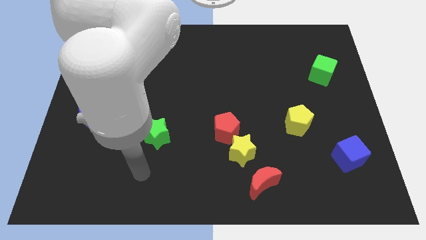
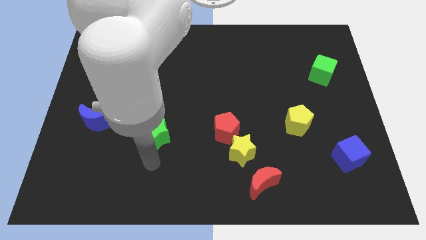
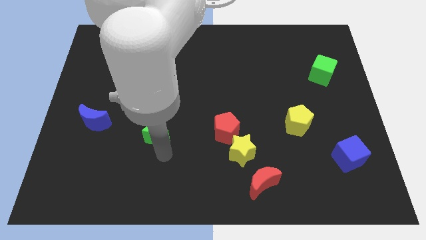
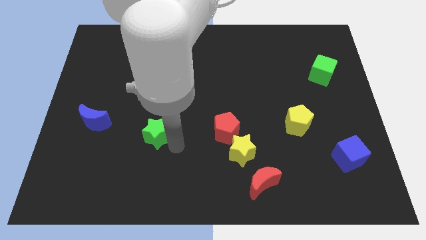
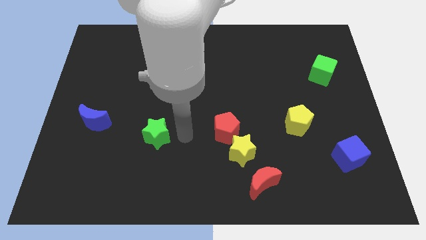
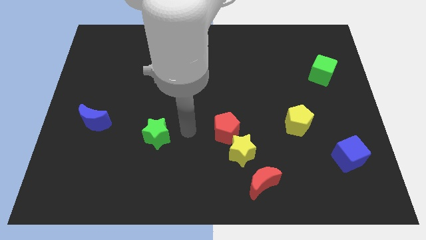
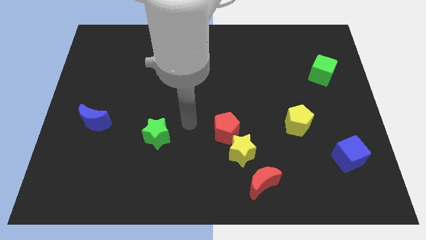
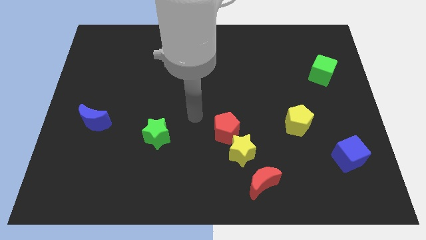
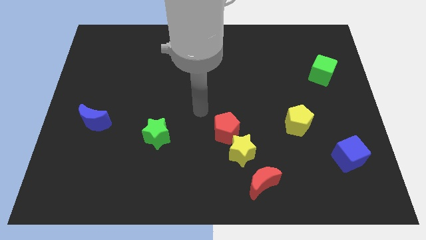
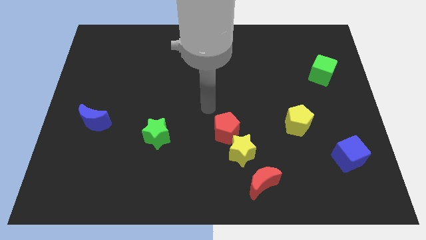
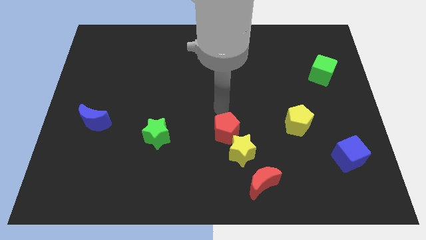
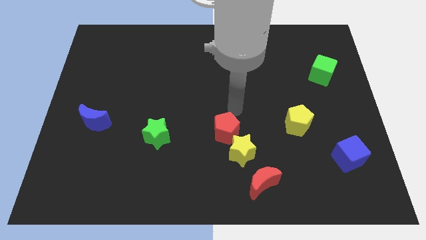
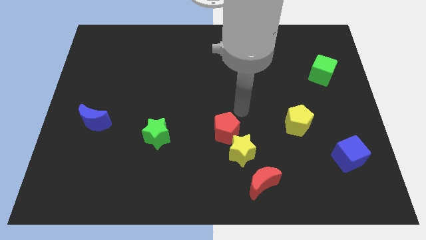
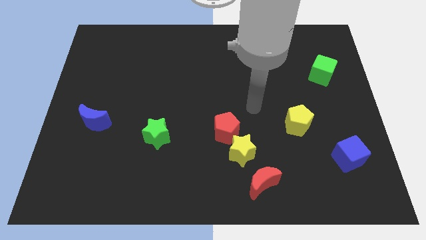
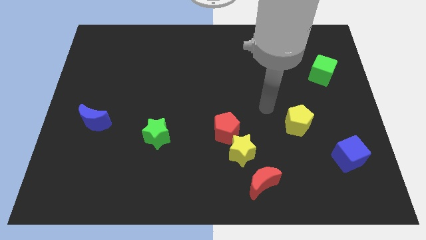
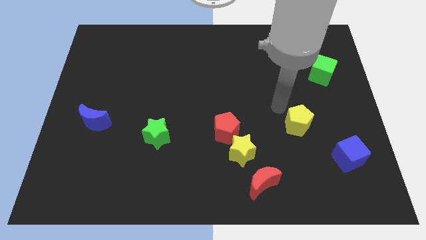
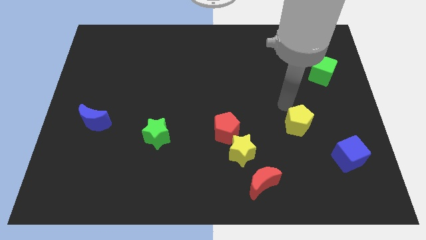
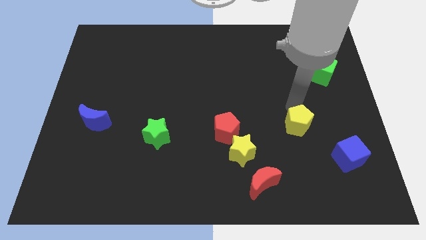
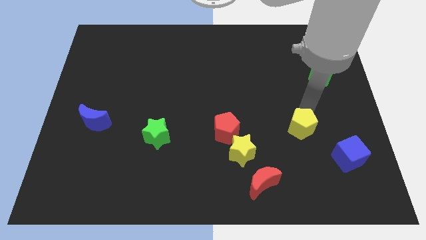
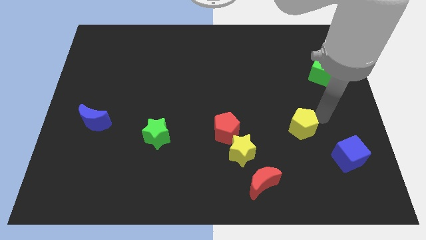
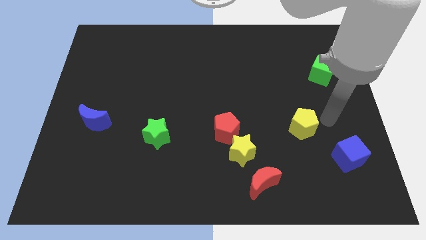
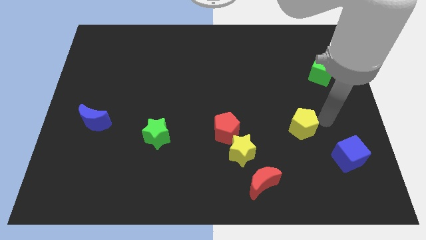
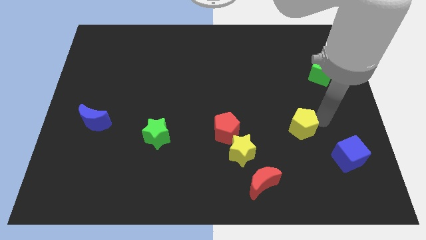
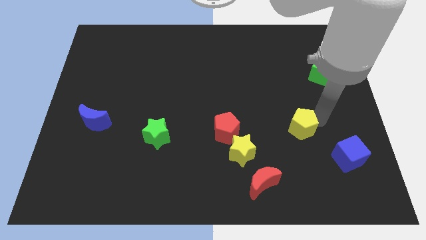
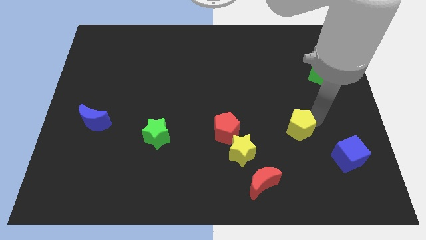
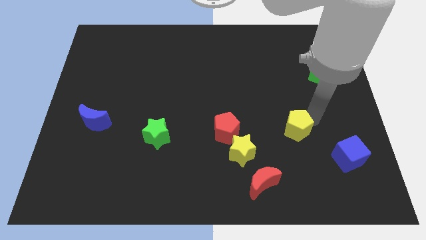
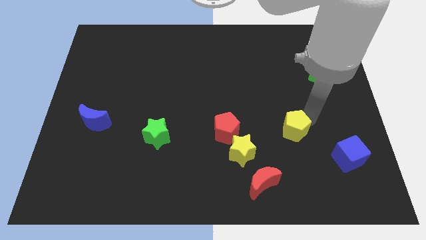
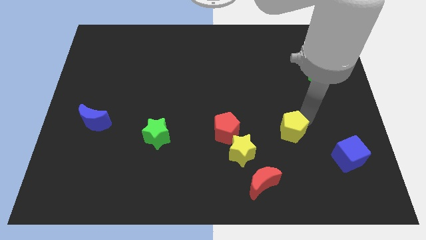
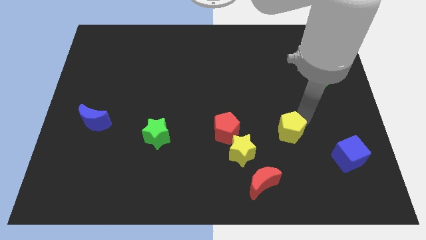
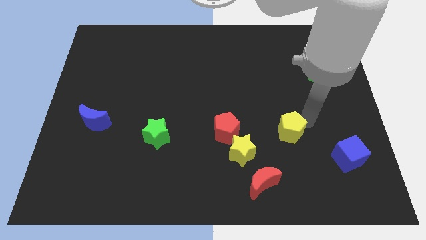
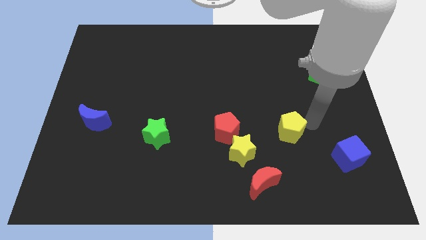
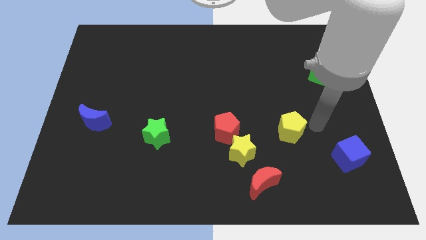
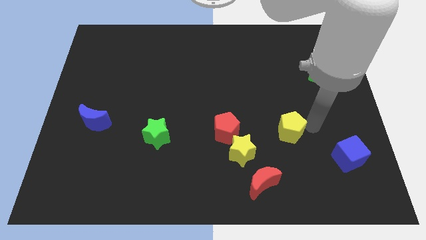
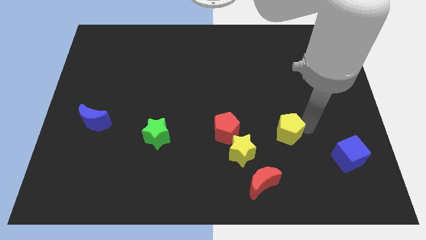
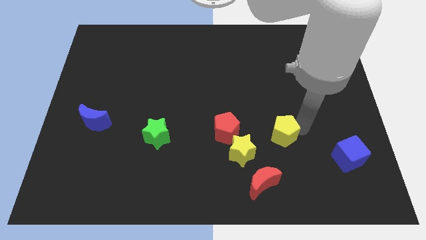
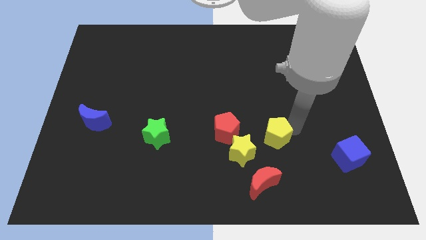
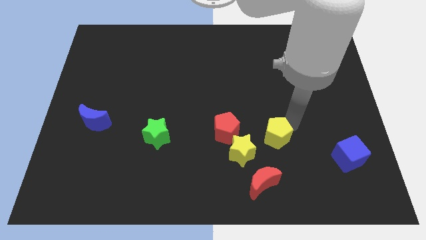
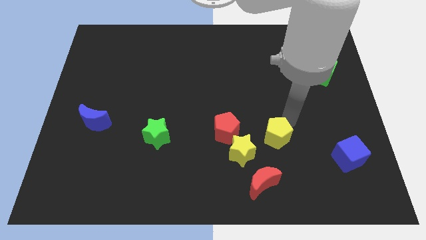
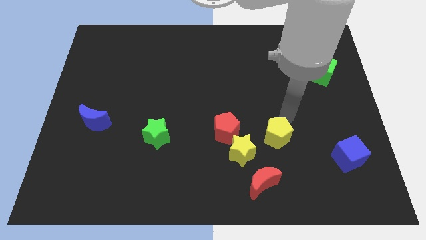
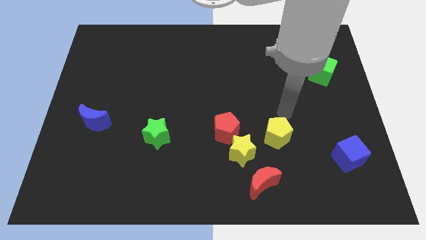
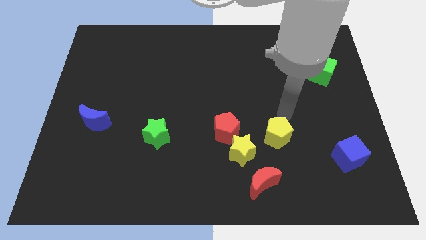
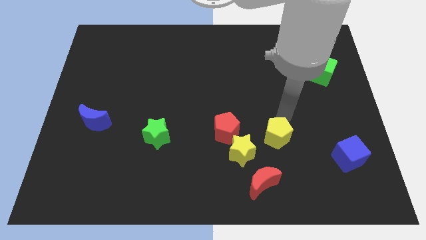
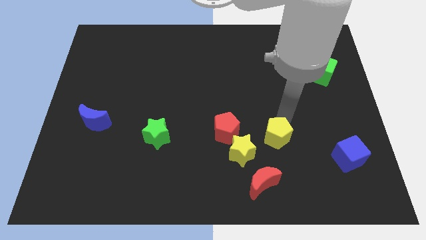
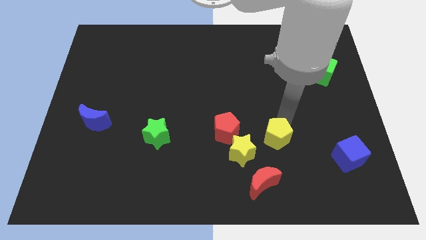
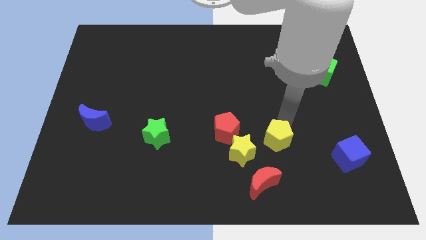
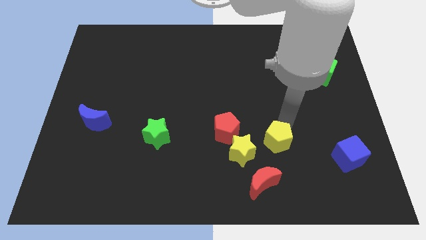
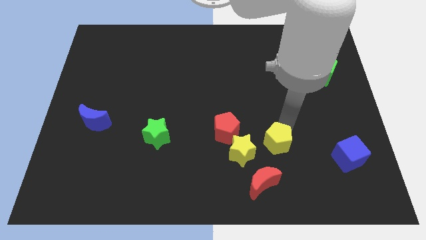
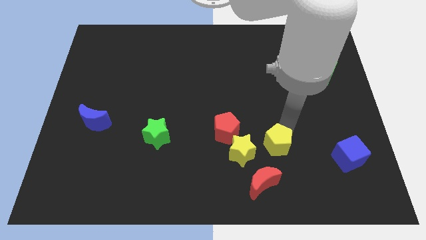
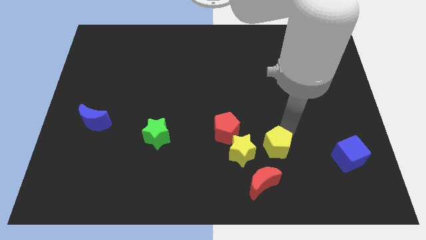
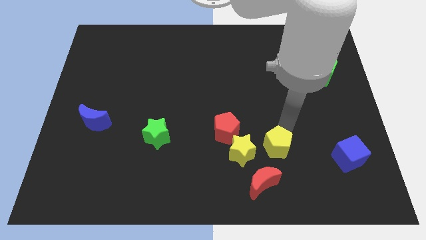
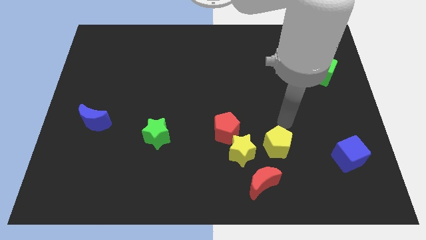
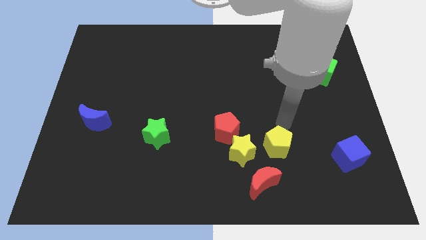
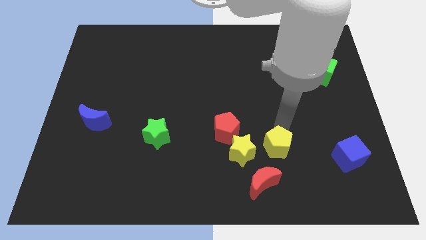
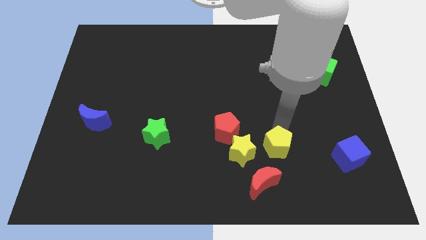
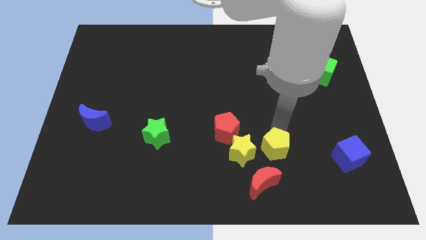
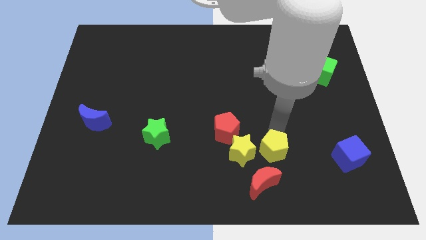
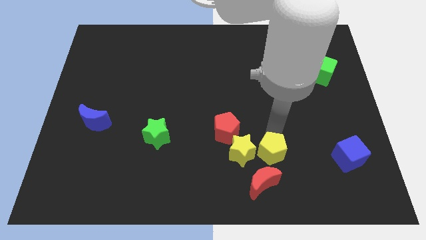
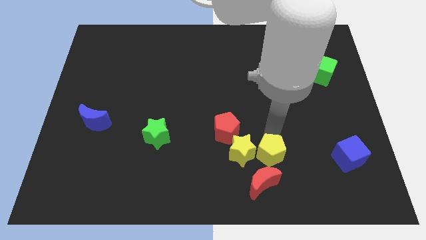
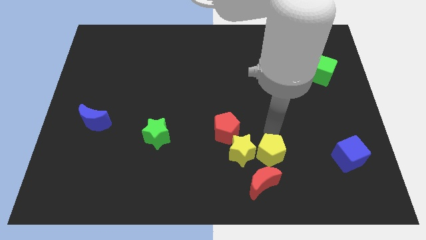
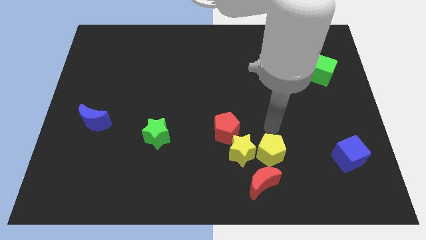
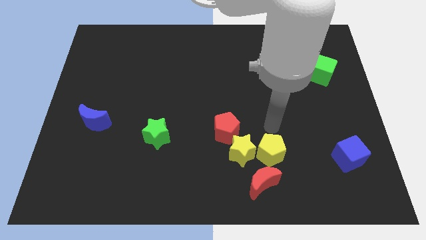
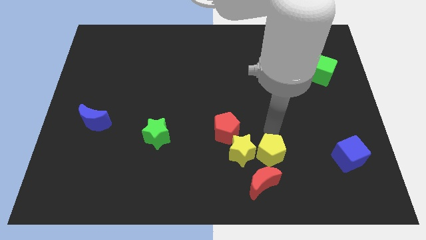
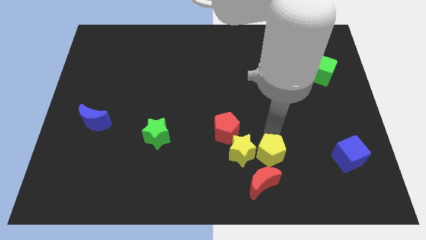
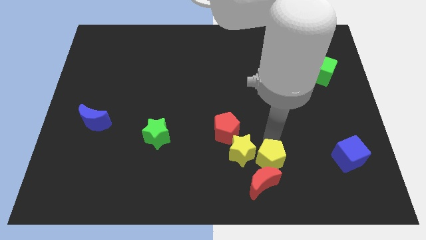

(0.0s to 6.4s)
slide the yellow pentagon towards the red moon
